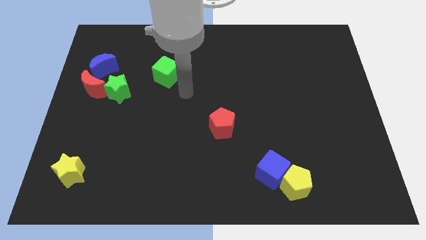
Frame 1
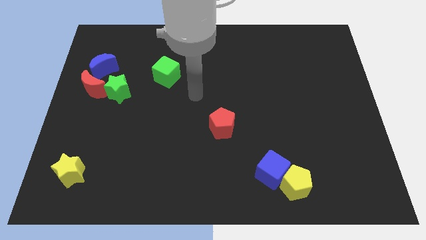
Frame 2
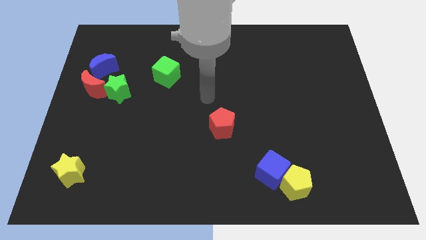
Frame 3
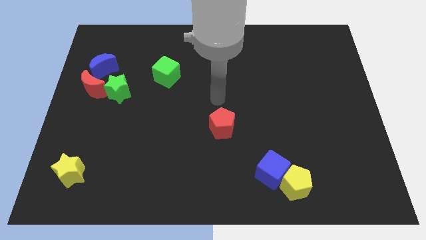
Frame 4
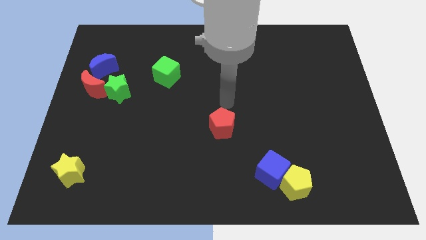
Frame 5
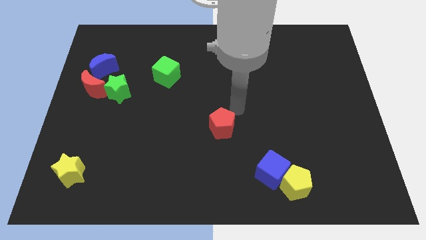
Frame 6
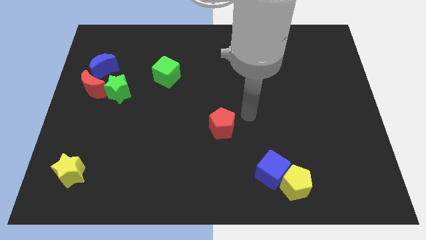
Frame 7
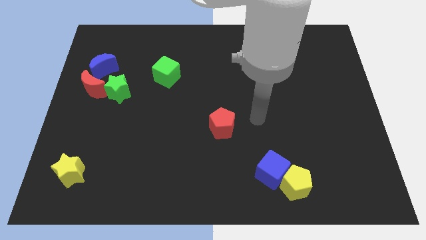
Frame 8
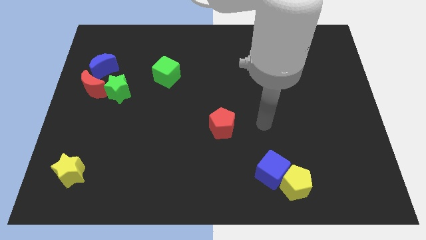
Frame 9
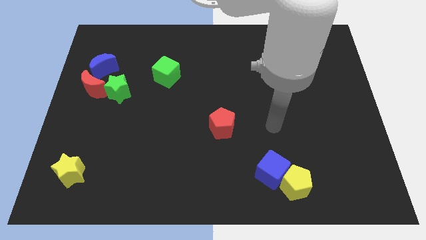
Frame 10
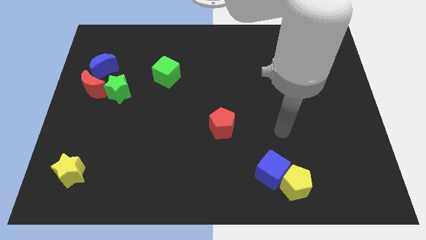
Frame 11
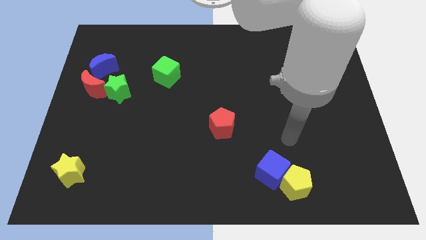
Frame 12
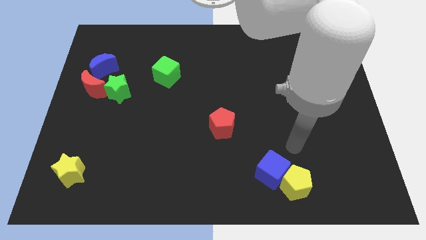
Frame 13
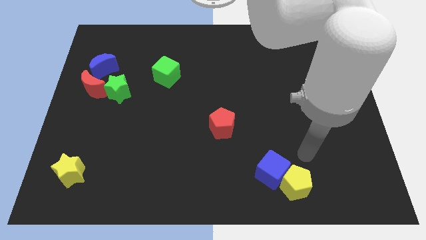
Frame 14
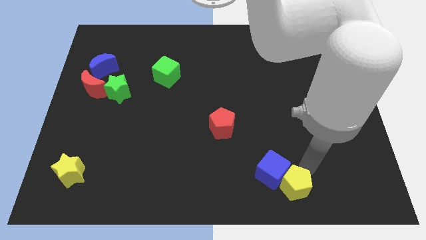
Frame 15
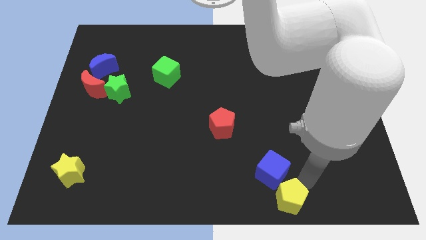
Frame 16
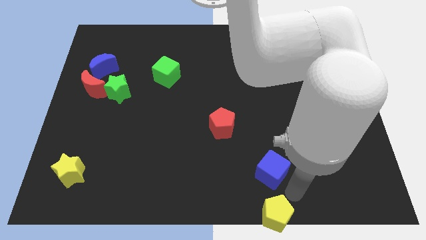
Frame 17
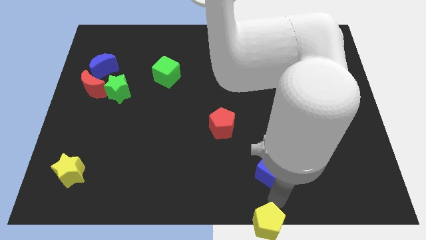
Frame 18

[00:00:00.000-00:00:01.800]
move the blue cube away from the yellow pentagon

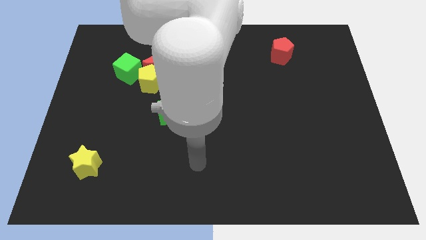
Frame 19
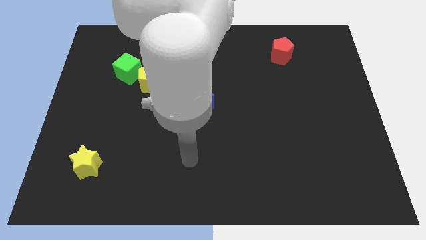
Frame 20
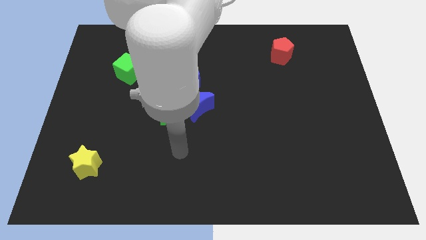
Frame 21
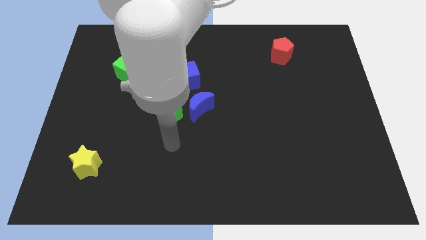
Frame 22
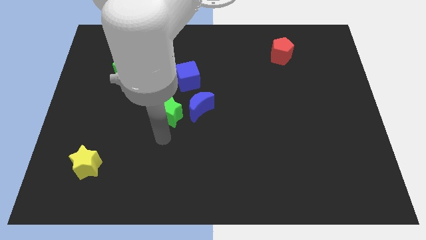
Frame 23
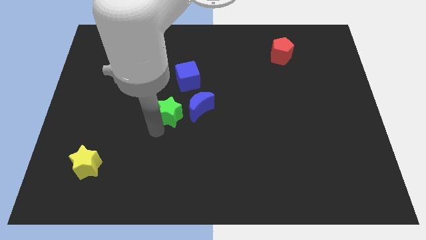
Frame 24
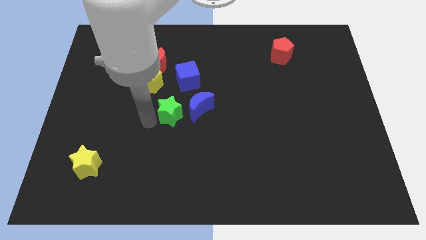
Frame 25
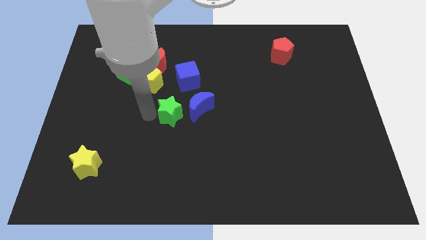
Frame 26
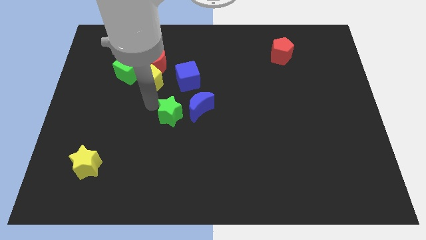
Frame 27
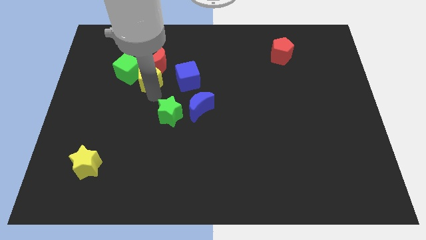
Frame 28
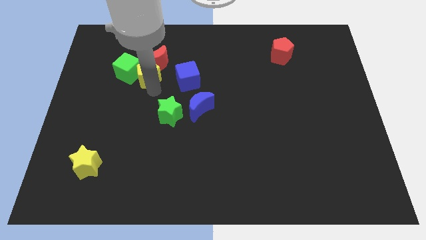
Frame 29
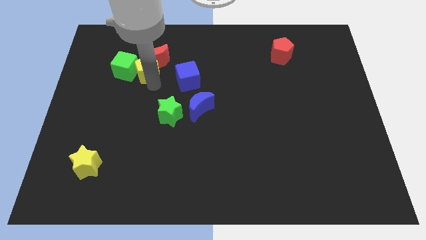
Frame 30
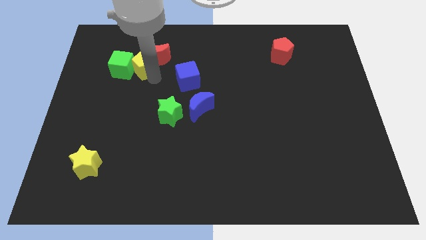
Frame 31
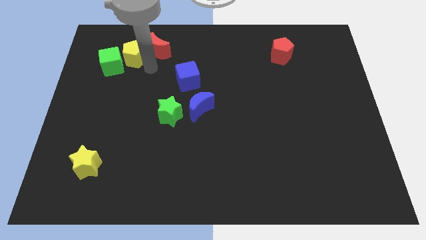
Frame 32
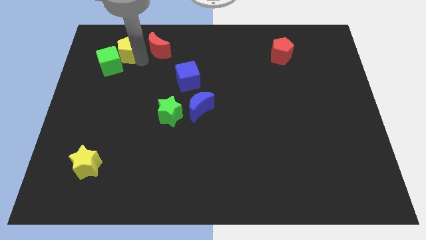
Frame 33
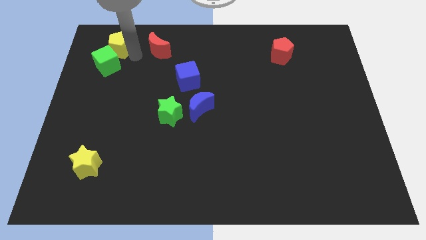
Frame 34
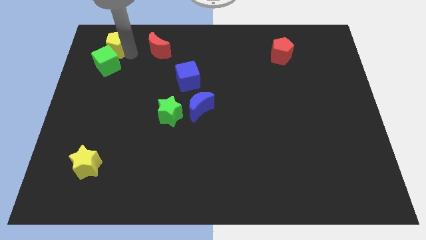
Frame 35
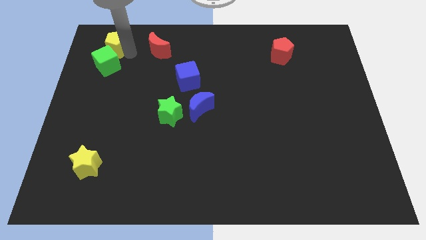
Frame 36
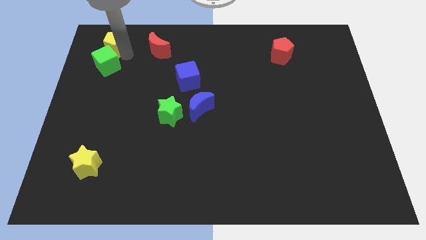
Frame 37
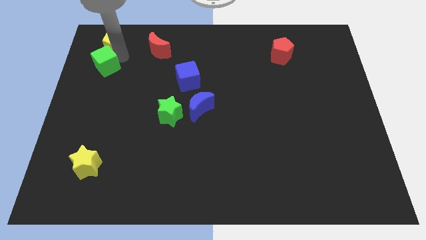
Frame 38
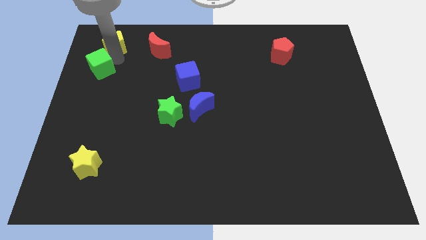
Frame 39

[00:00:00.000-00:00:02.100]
move the green cube away from the yellow pentagon and red moon

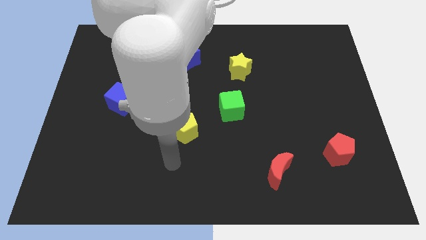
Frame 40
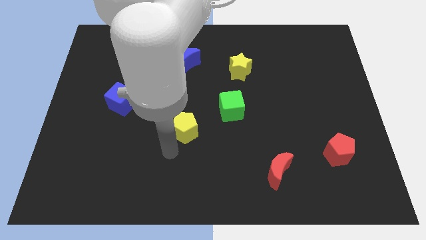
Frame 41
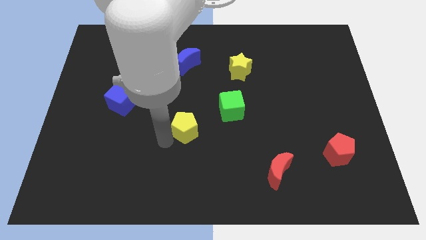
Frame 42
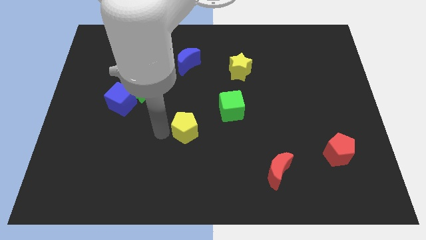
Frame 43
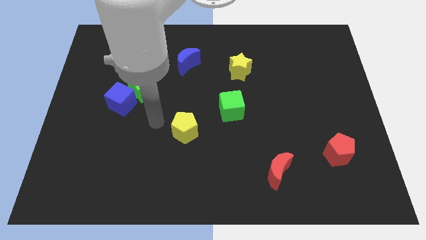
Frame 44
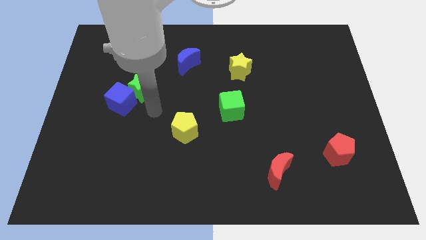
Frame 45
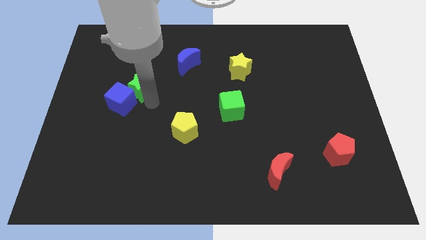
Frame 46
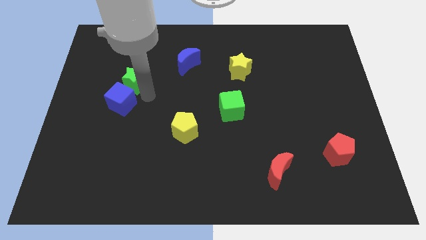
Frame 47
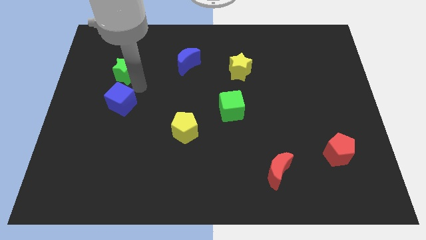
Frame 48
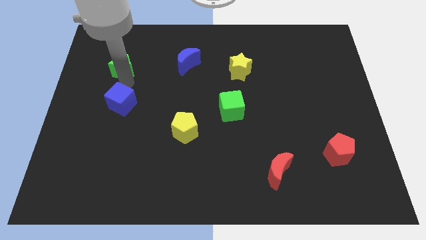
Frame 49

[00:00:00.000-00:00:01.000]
separate the blue cube from the green star

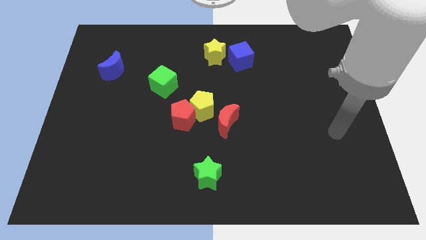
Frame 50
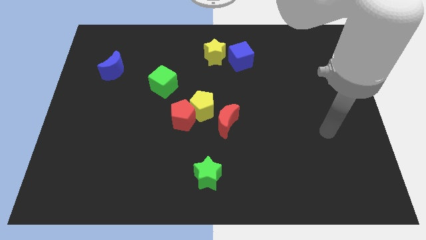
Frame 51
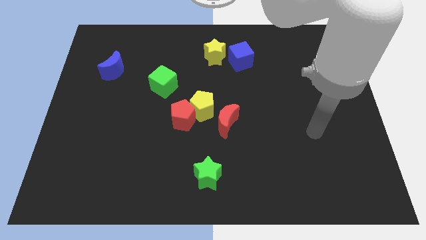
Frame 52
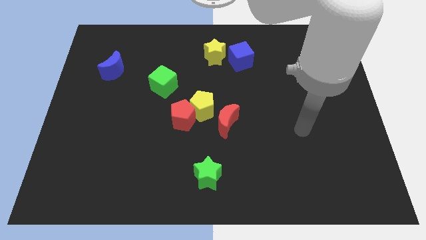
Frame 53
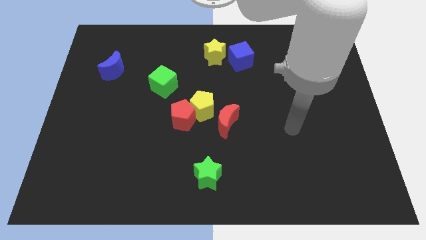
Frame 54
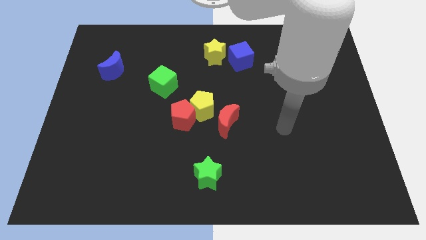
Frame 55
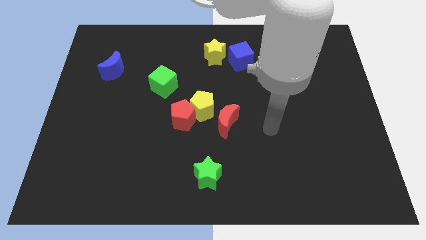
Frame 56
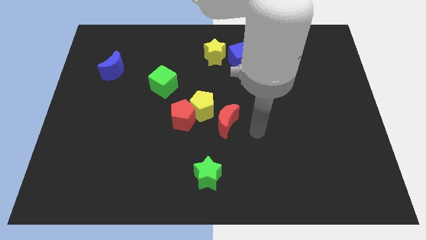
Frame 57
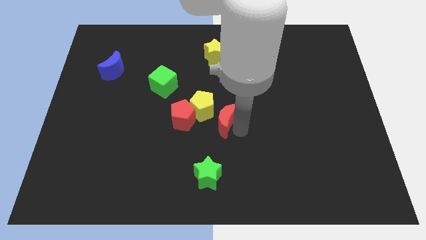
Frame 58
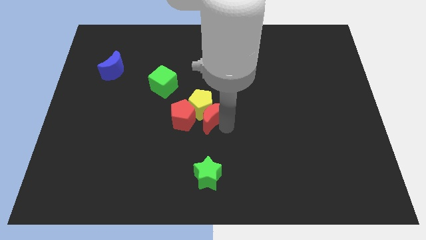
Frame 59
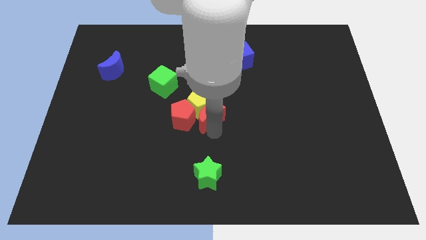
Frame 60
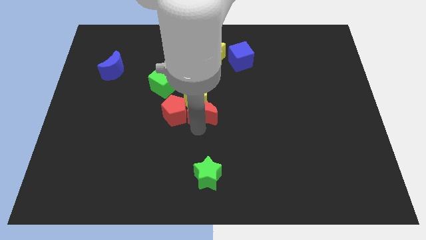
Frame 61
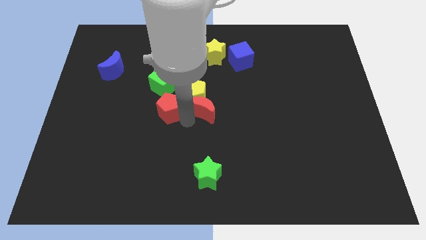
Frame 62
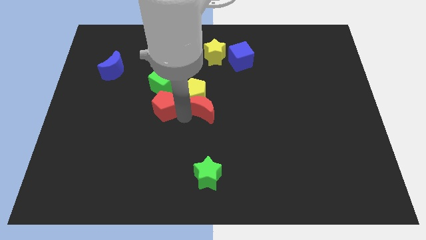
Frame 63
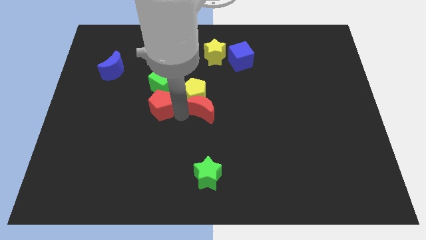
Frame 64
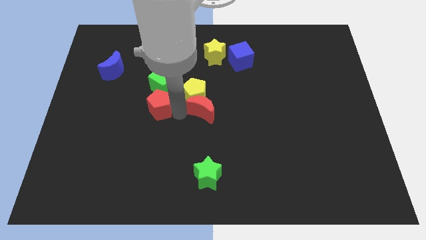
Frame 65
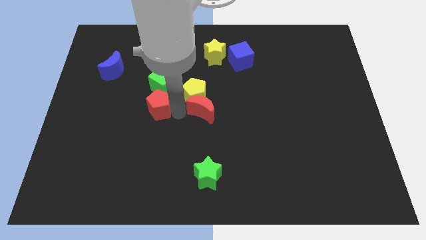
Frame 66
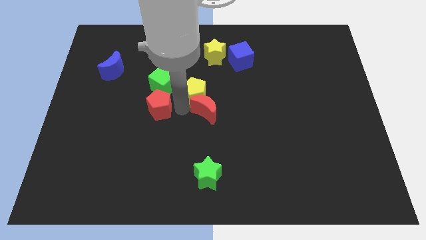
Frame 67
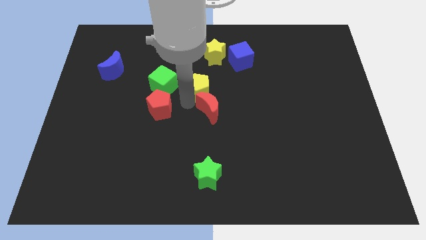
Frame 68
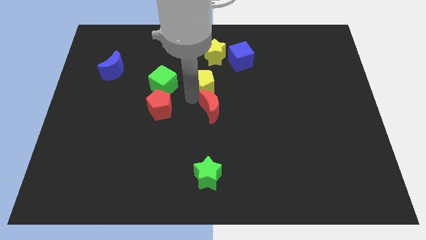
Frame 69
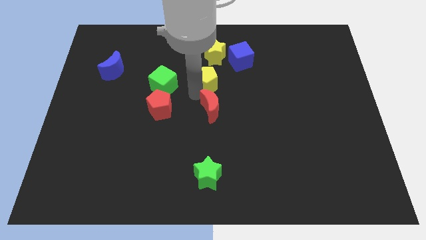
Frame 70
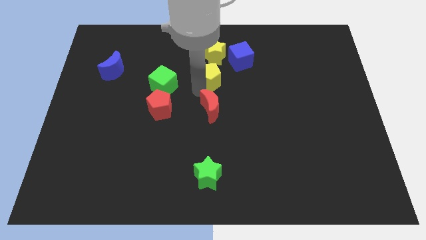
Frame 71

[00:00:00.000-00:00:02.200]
pull the yellow pentagon apart from the red pentagon and red moon

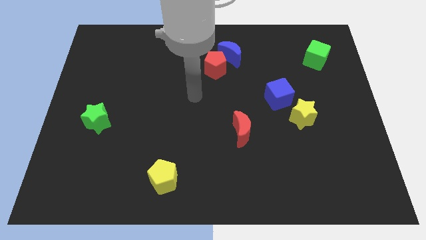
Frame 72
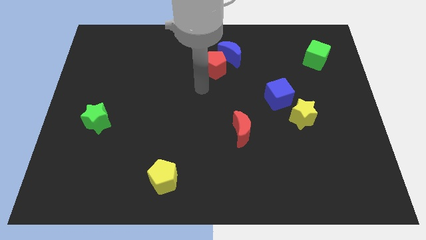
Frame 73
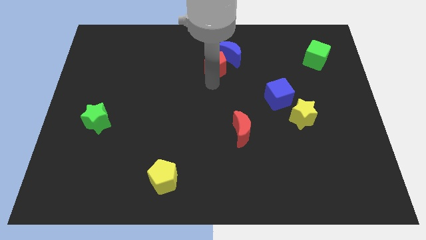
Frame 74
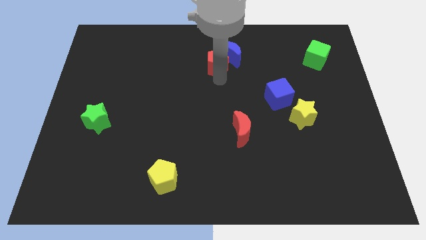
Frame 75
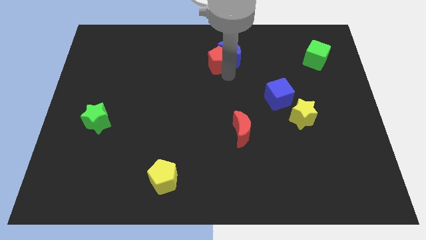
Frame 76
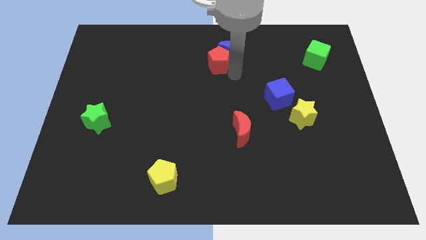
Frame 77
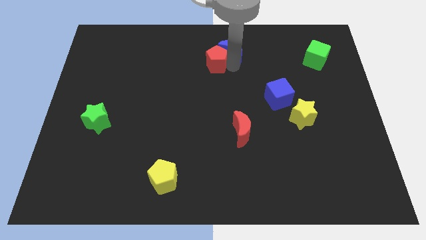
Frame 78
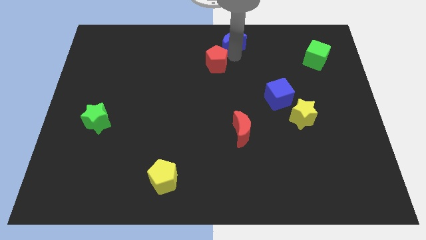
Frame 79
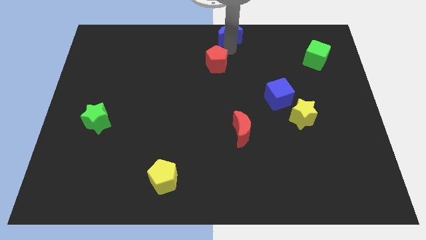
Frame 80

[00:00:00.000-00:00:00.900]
move the red pentagon away from the blue moon

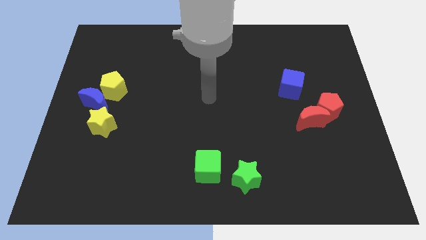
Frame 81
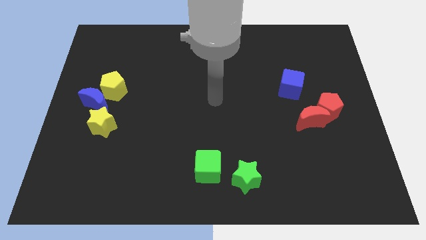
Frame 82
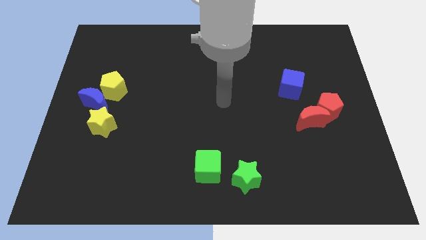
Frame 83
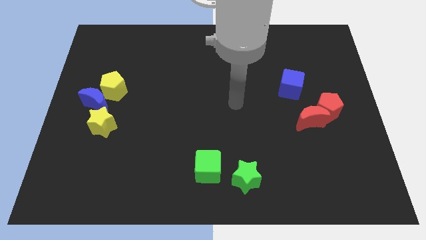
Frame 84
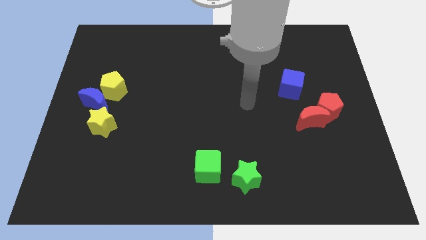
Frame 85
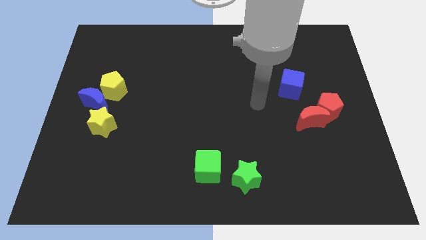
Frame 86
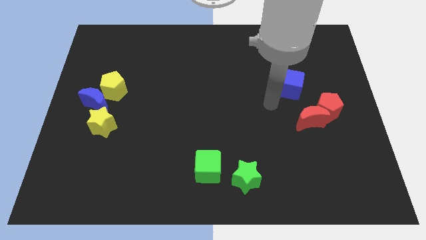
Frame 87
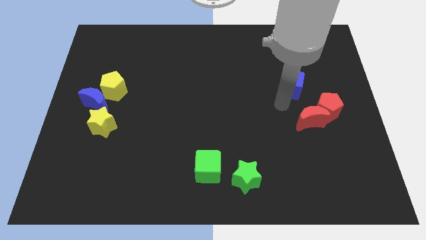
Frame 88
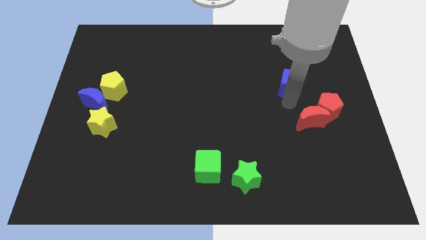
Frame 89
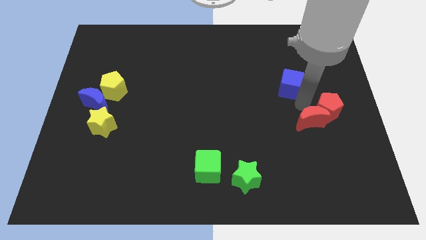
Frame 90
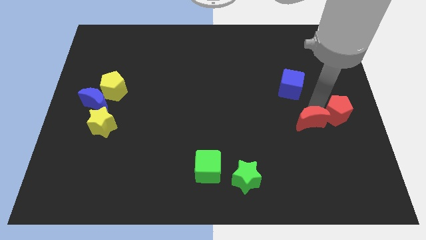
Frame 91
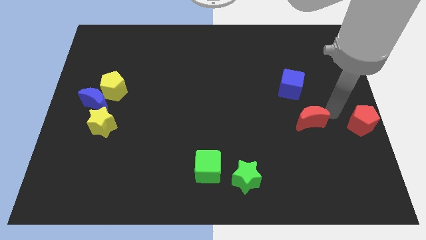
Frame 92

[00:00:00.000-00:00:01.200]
separate the red moon from the red pentagon

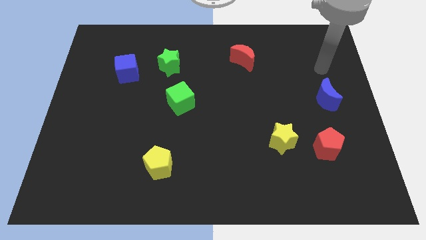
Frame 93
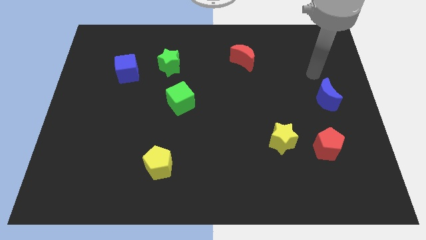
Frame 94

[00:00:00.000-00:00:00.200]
separate the red pentagon from the yellow star
